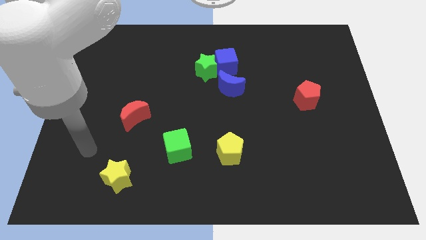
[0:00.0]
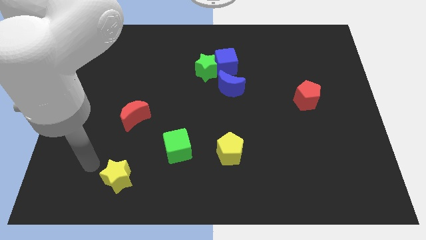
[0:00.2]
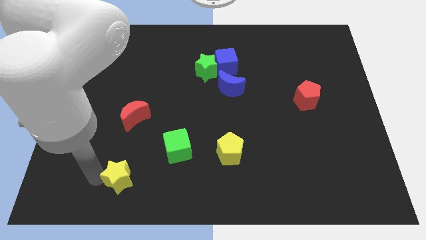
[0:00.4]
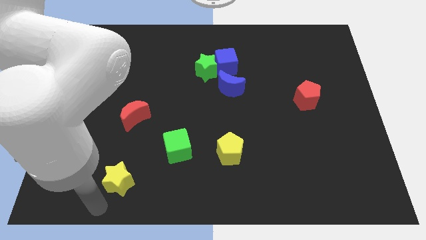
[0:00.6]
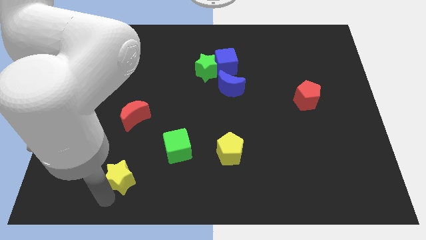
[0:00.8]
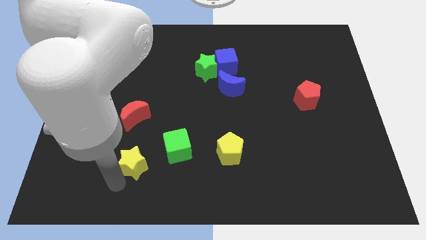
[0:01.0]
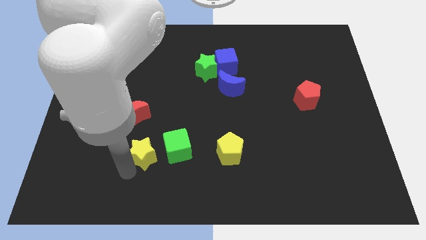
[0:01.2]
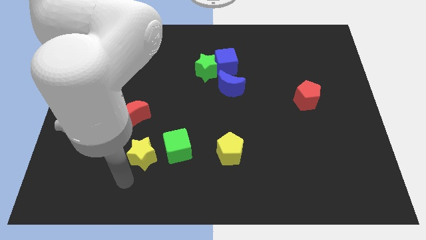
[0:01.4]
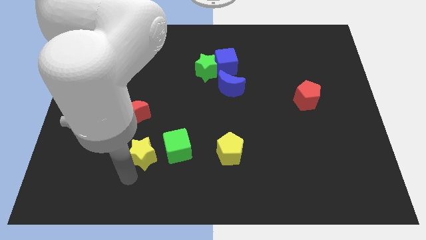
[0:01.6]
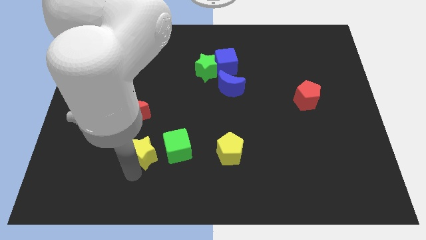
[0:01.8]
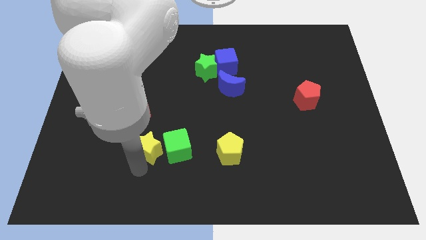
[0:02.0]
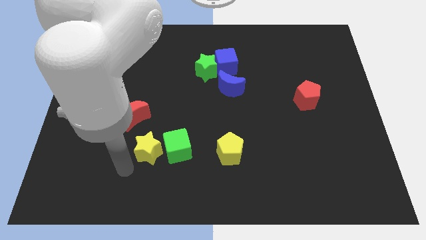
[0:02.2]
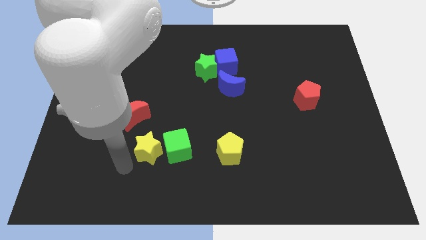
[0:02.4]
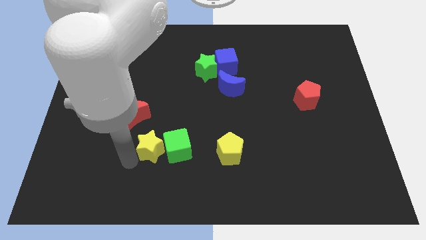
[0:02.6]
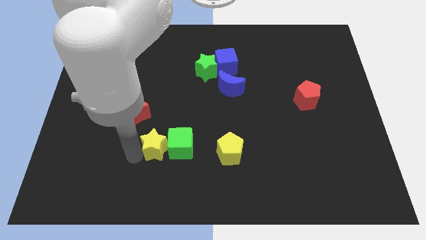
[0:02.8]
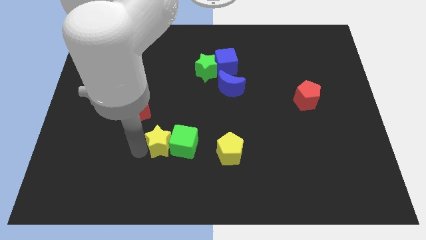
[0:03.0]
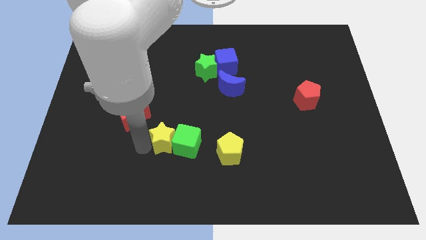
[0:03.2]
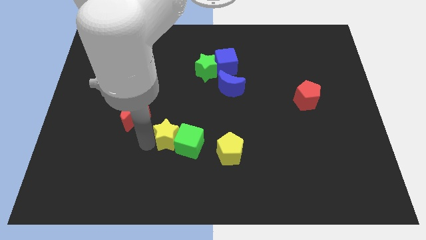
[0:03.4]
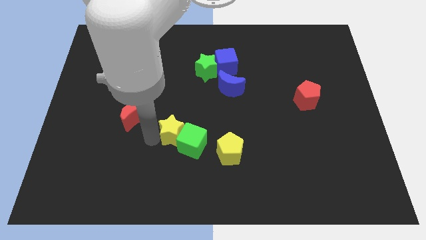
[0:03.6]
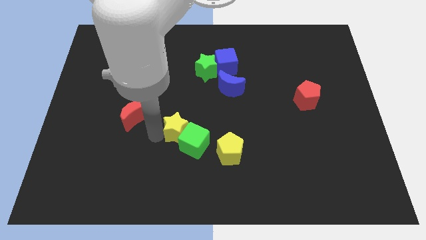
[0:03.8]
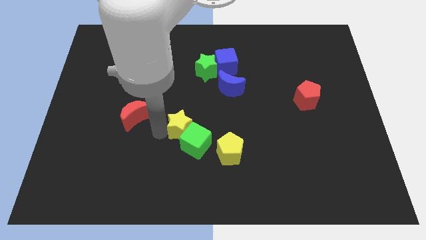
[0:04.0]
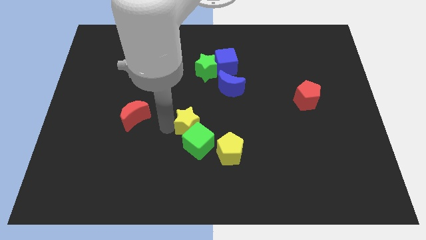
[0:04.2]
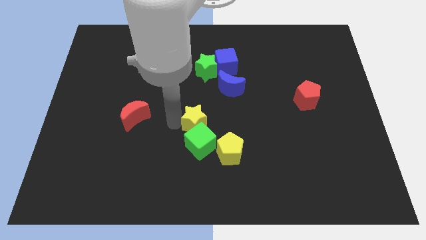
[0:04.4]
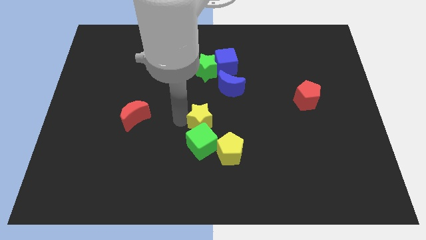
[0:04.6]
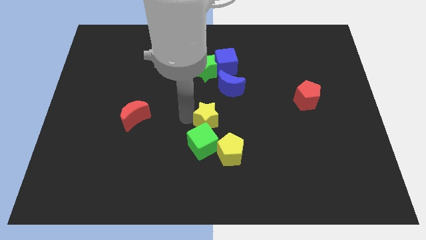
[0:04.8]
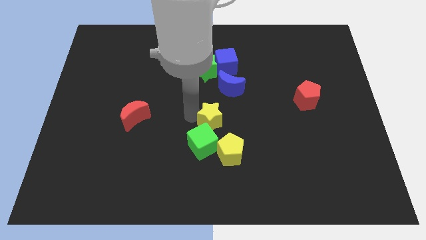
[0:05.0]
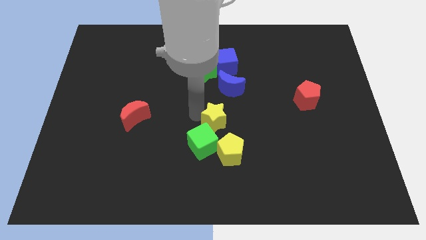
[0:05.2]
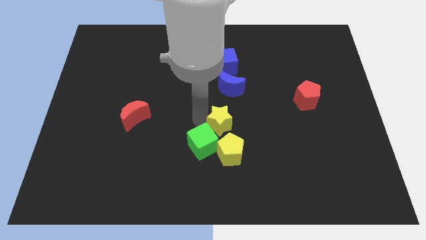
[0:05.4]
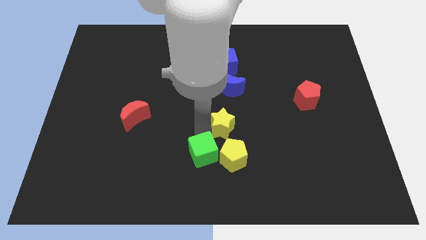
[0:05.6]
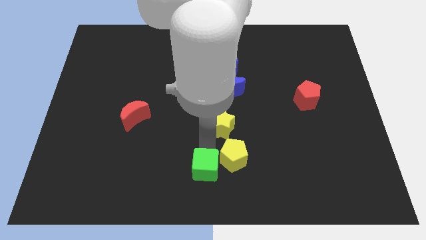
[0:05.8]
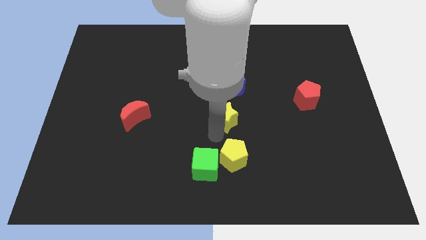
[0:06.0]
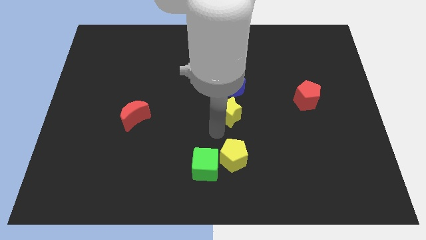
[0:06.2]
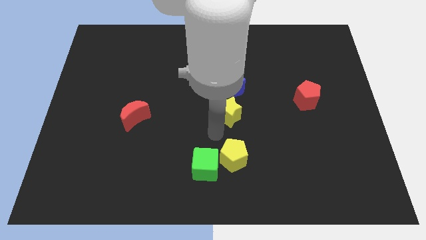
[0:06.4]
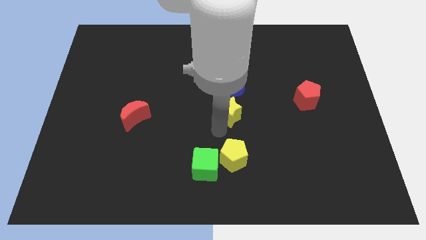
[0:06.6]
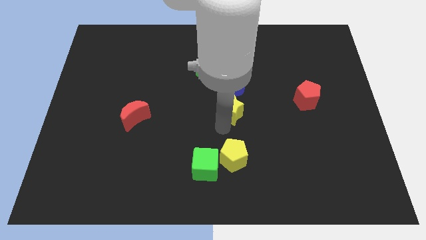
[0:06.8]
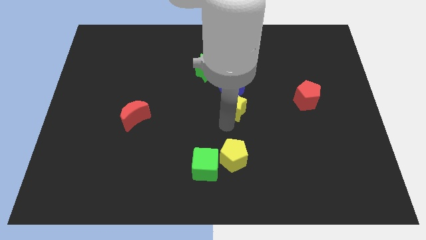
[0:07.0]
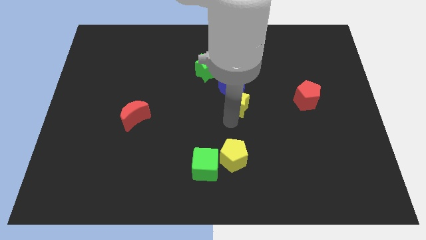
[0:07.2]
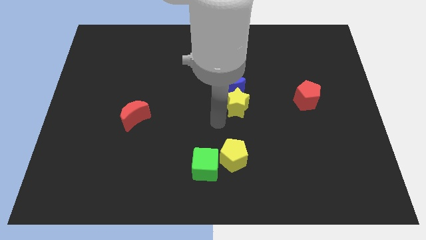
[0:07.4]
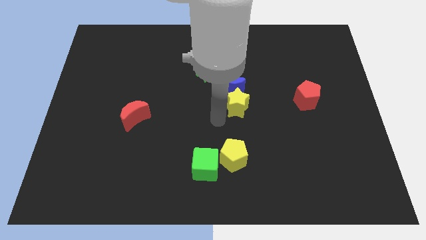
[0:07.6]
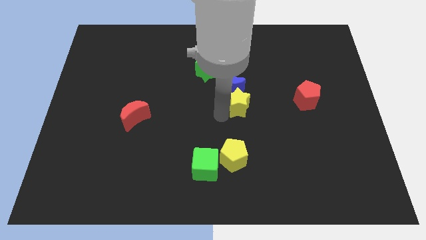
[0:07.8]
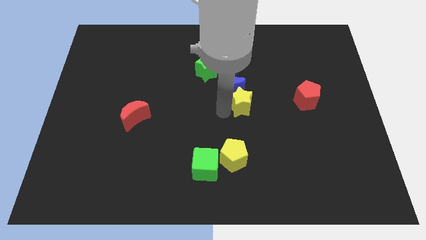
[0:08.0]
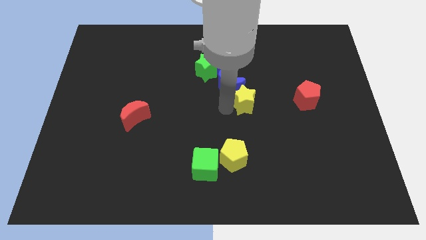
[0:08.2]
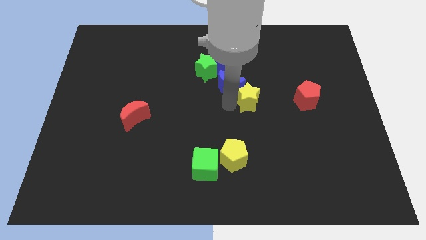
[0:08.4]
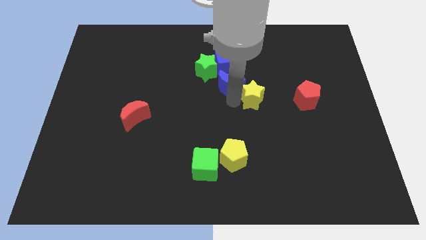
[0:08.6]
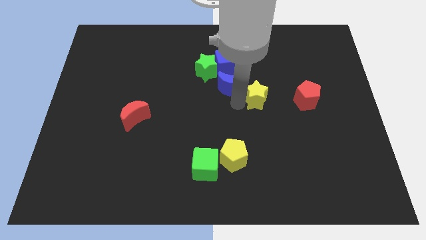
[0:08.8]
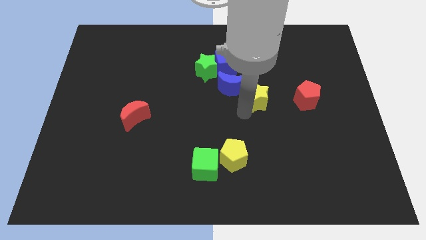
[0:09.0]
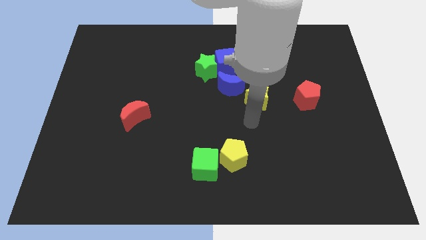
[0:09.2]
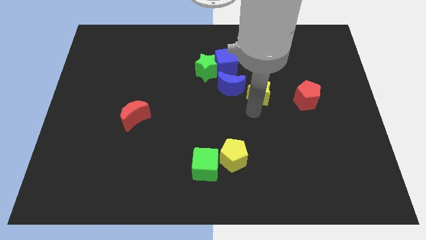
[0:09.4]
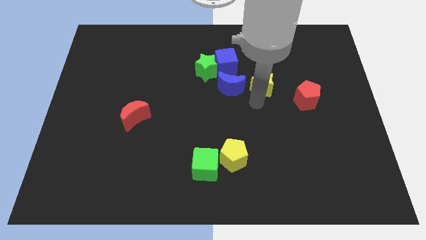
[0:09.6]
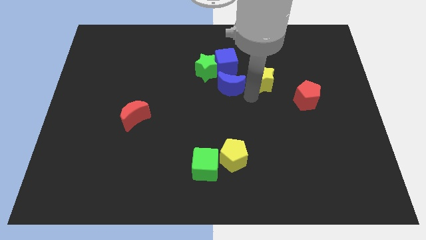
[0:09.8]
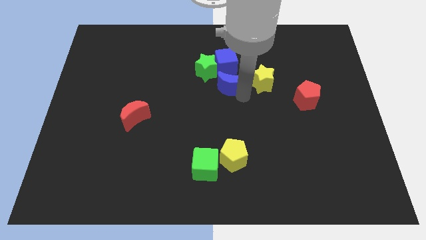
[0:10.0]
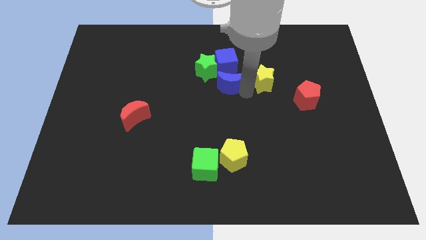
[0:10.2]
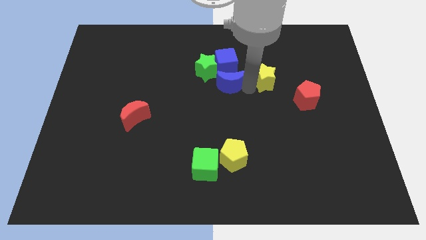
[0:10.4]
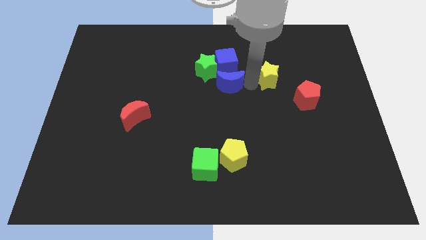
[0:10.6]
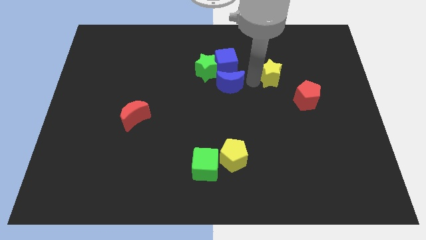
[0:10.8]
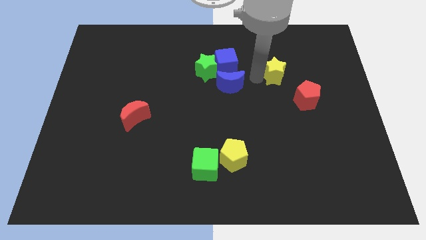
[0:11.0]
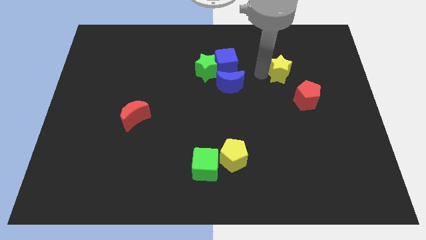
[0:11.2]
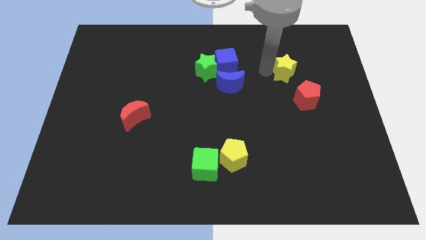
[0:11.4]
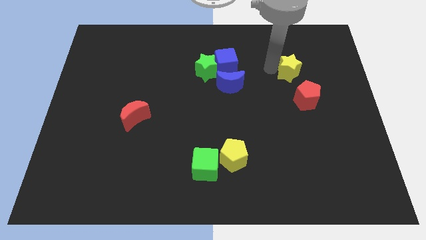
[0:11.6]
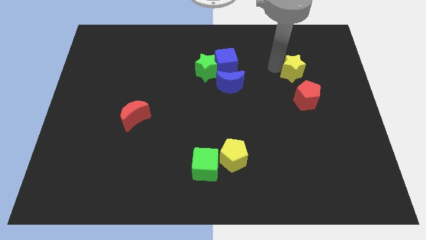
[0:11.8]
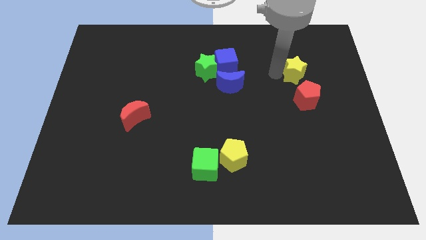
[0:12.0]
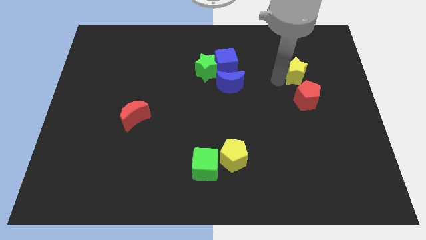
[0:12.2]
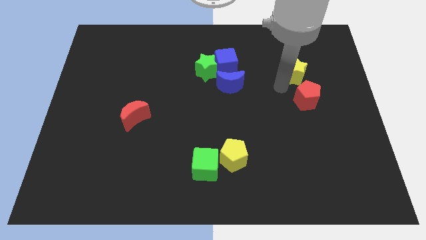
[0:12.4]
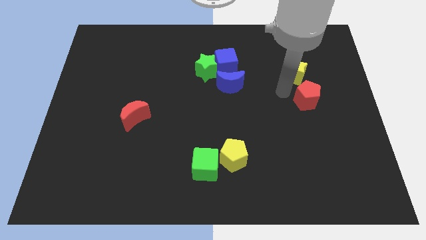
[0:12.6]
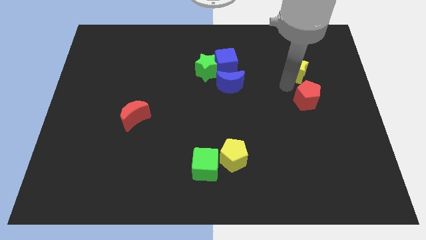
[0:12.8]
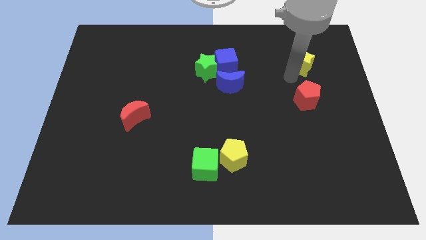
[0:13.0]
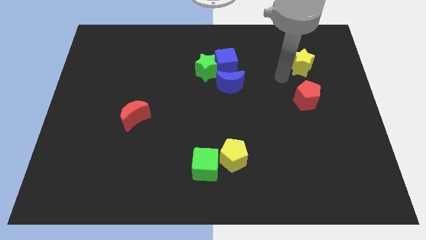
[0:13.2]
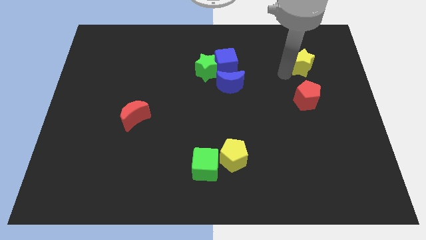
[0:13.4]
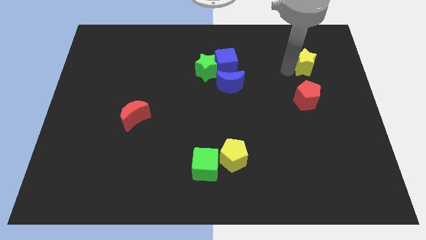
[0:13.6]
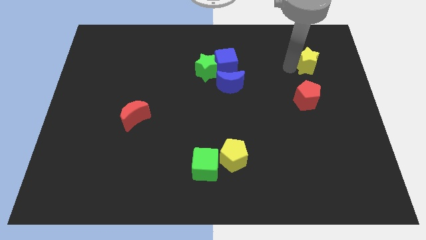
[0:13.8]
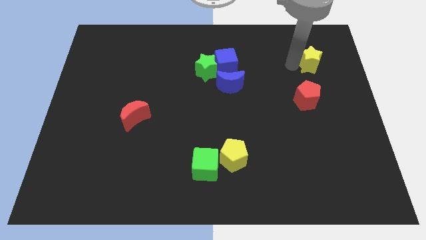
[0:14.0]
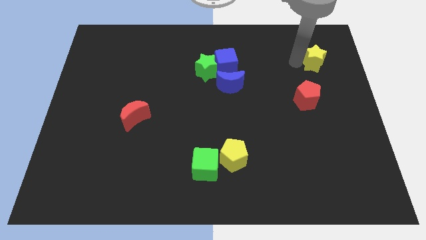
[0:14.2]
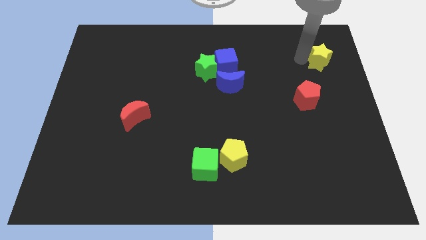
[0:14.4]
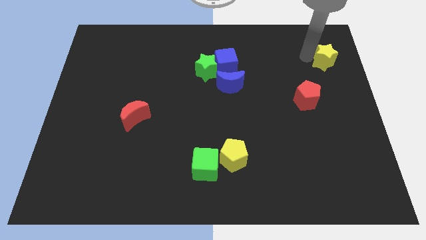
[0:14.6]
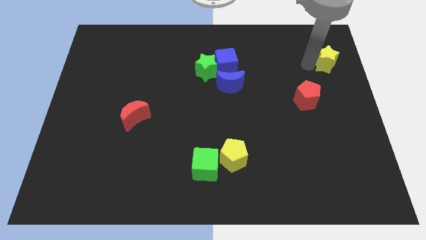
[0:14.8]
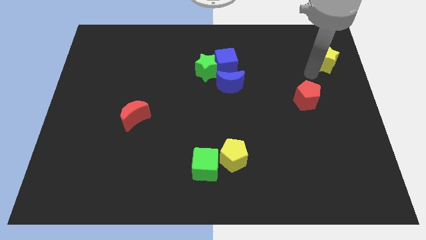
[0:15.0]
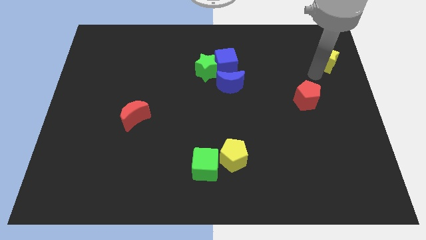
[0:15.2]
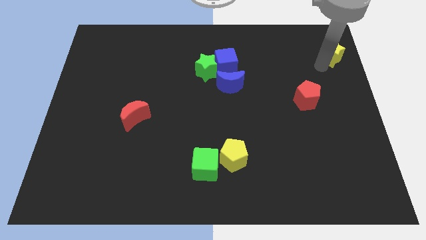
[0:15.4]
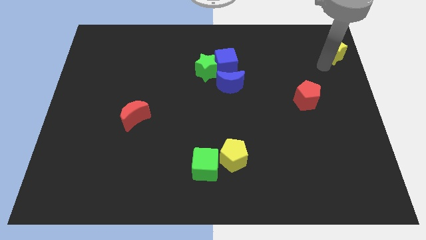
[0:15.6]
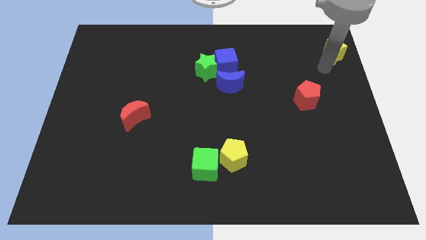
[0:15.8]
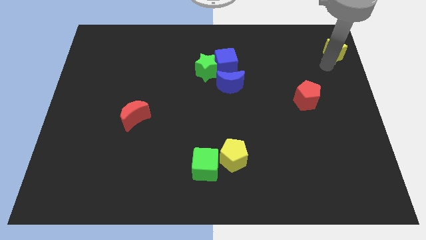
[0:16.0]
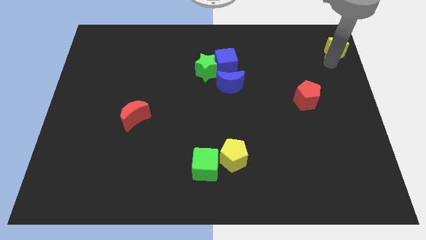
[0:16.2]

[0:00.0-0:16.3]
slide the yellow star to the top right
